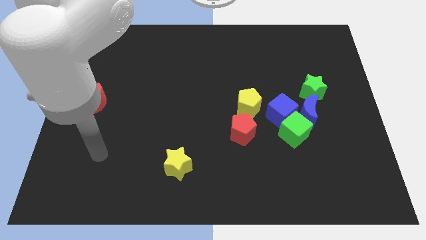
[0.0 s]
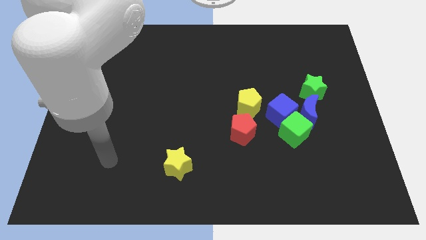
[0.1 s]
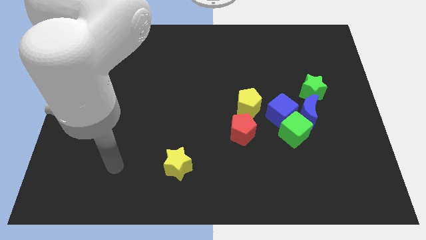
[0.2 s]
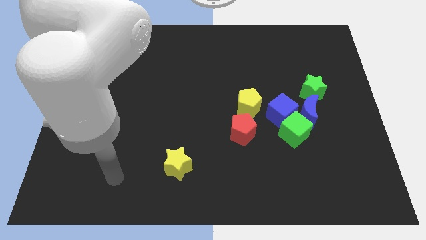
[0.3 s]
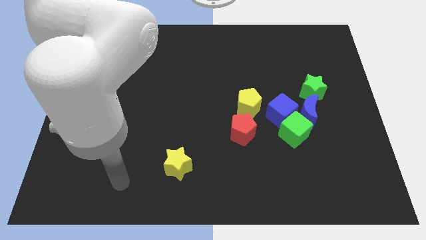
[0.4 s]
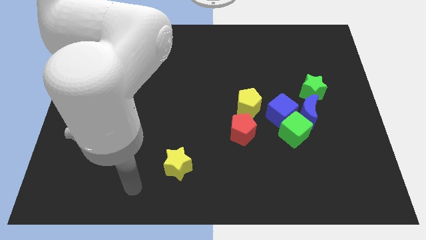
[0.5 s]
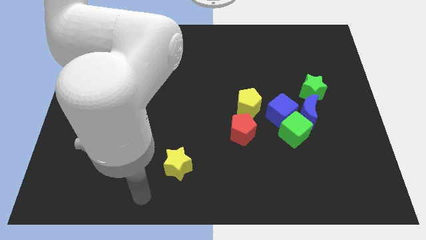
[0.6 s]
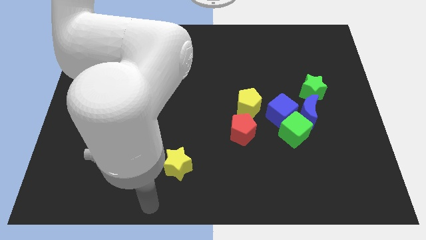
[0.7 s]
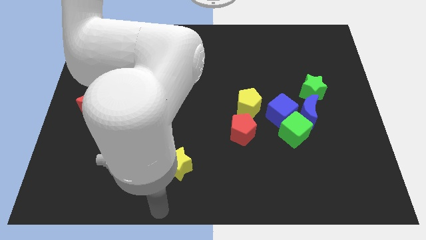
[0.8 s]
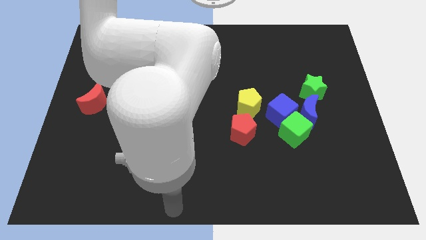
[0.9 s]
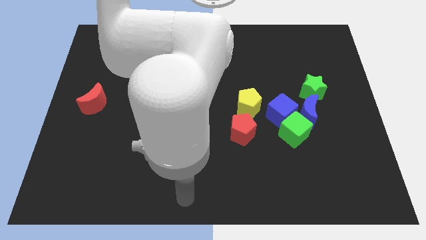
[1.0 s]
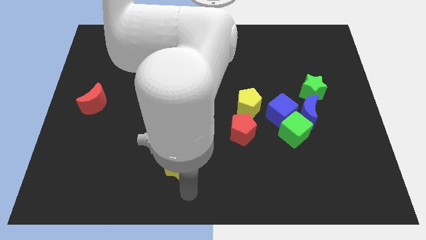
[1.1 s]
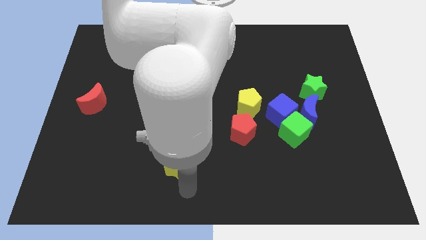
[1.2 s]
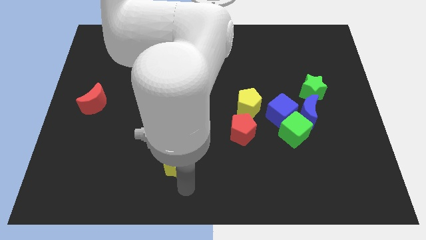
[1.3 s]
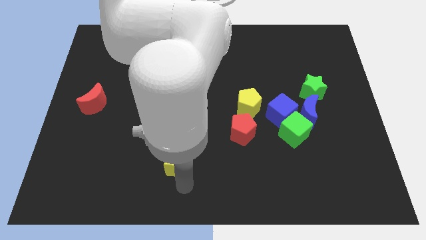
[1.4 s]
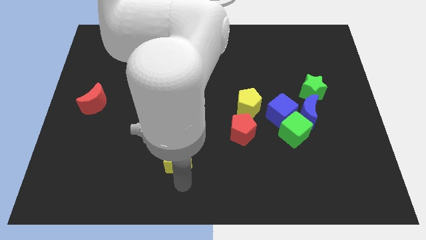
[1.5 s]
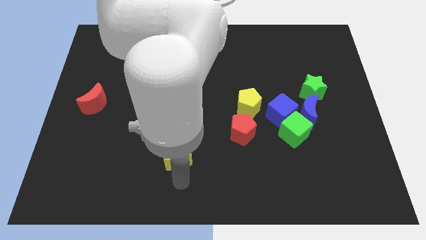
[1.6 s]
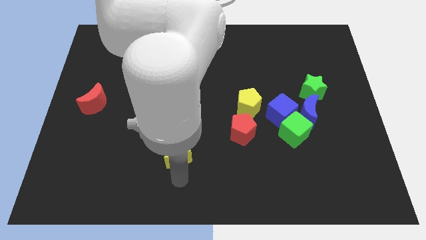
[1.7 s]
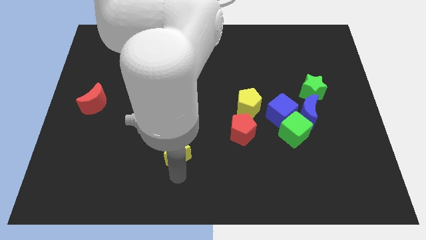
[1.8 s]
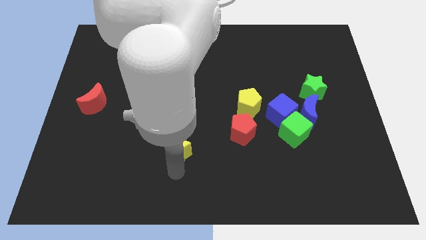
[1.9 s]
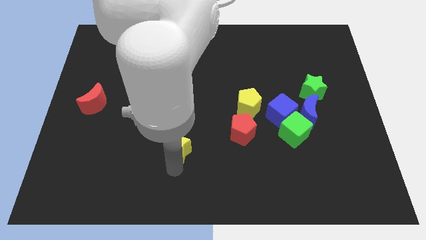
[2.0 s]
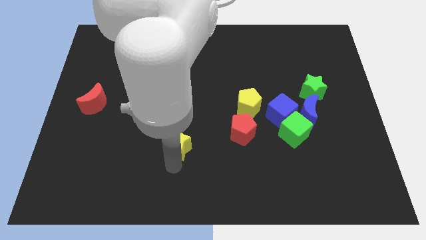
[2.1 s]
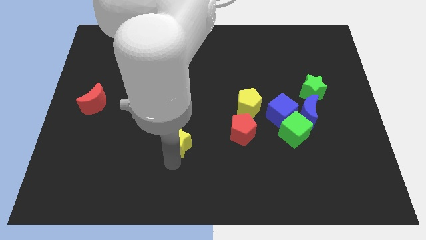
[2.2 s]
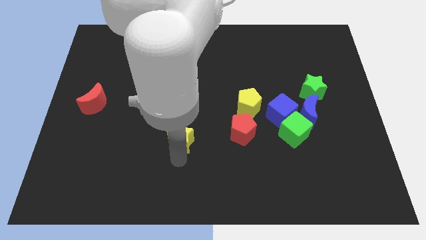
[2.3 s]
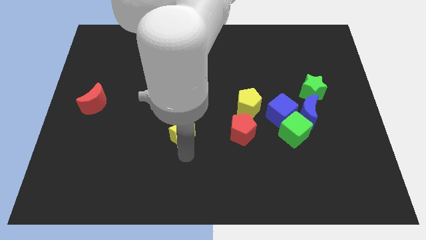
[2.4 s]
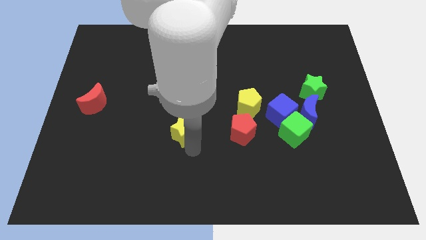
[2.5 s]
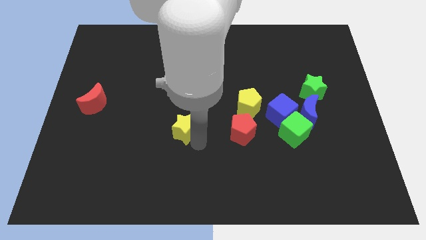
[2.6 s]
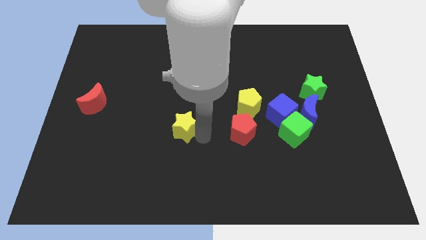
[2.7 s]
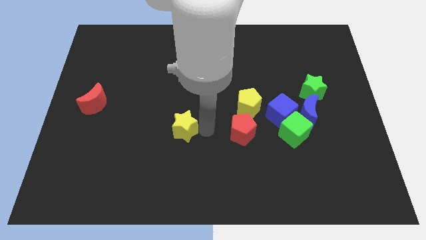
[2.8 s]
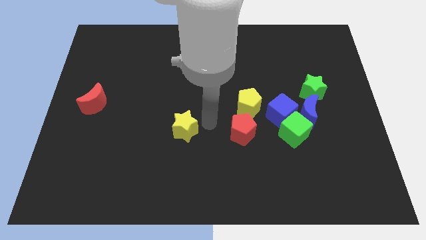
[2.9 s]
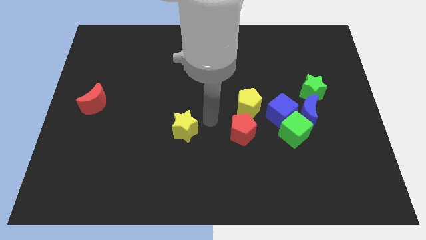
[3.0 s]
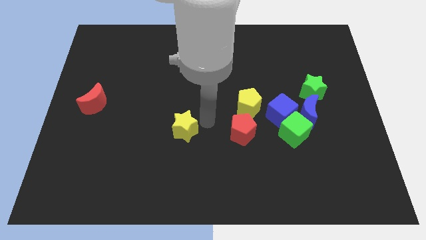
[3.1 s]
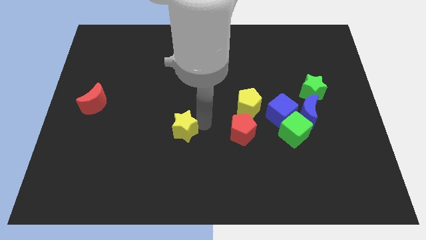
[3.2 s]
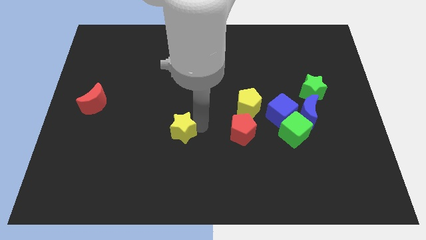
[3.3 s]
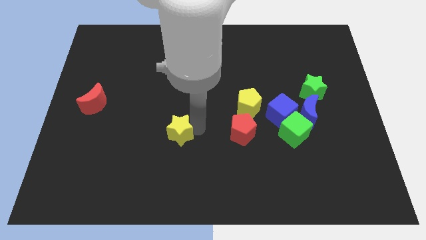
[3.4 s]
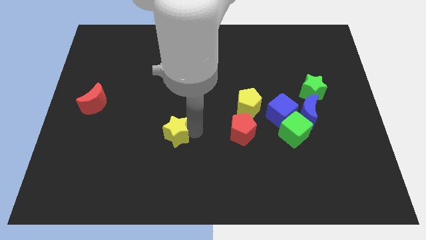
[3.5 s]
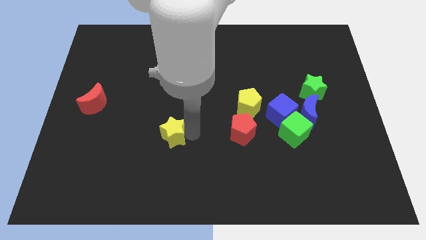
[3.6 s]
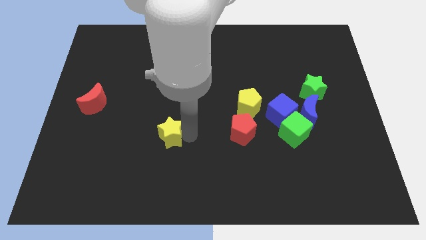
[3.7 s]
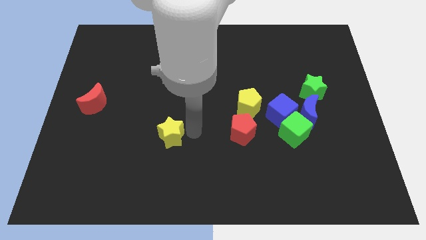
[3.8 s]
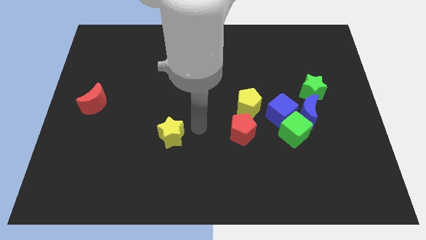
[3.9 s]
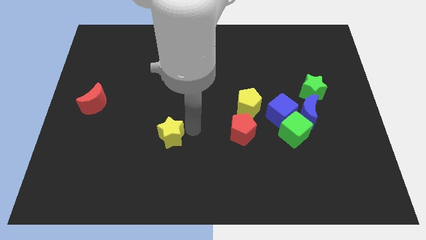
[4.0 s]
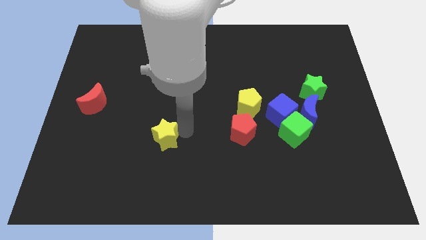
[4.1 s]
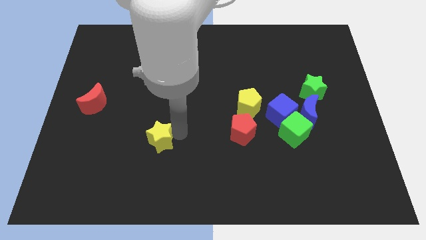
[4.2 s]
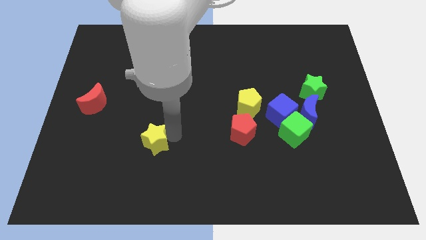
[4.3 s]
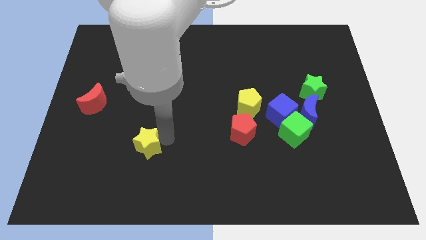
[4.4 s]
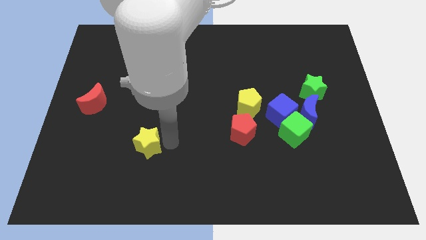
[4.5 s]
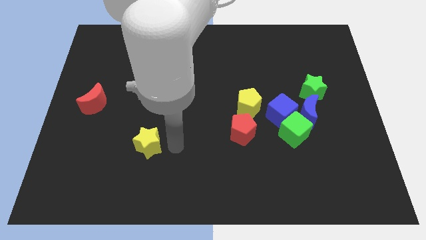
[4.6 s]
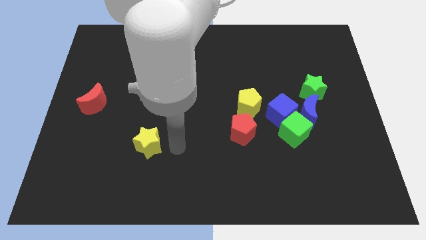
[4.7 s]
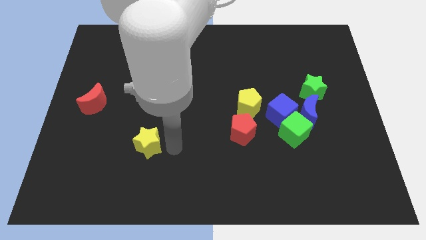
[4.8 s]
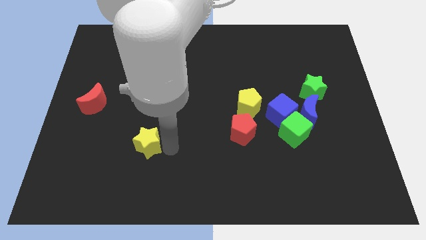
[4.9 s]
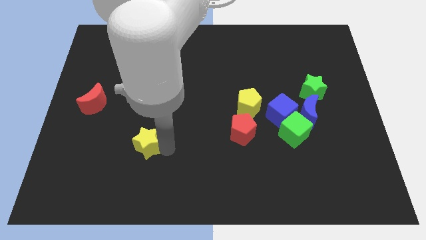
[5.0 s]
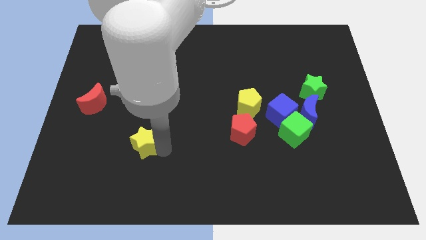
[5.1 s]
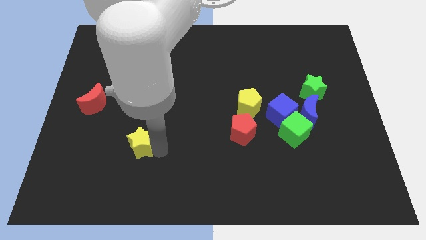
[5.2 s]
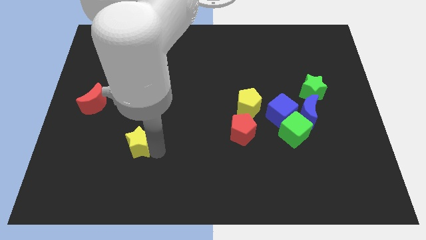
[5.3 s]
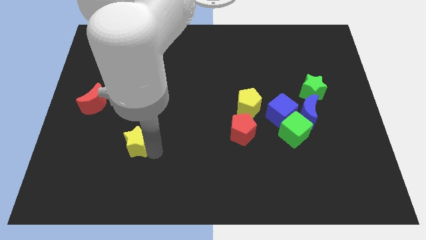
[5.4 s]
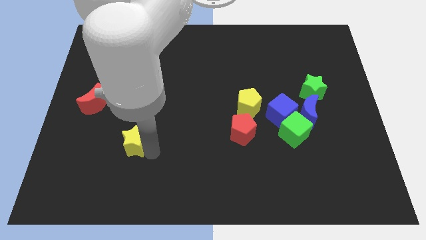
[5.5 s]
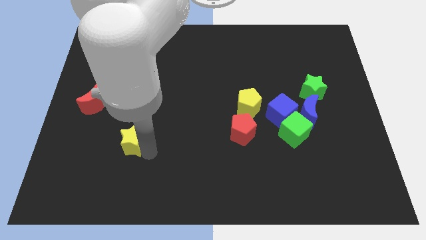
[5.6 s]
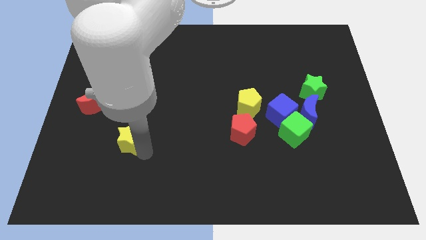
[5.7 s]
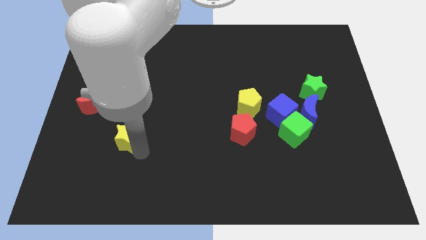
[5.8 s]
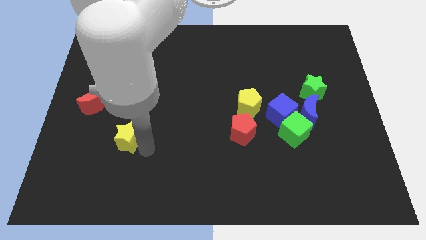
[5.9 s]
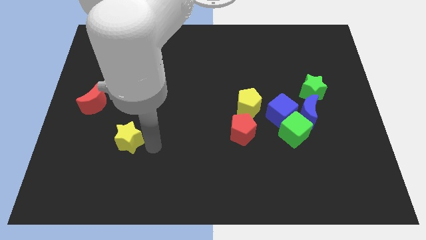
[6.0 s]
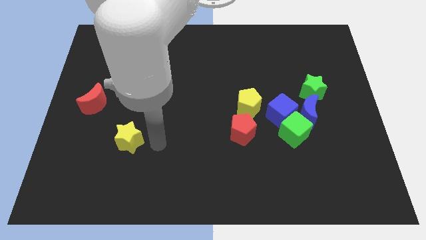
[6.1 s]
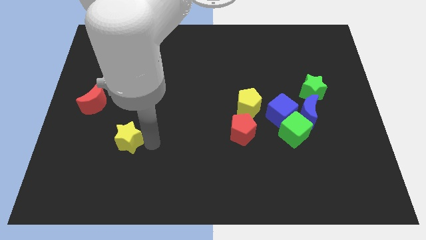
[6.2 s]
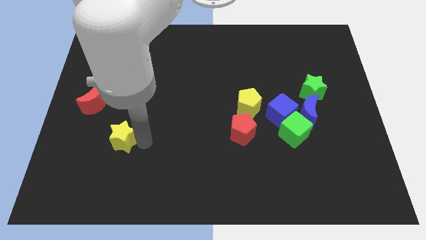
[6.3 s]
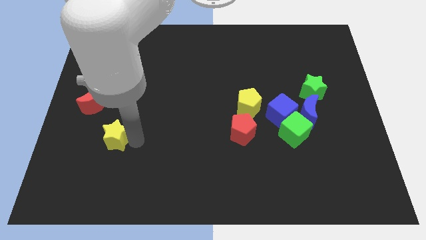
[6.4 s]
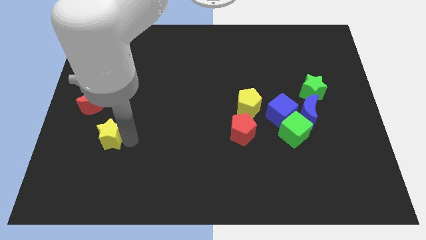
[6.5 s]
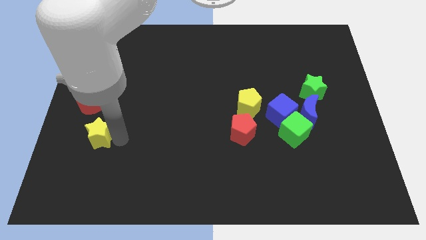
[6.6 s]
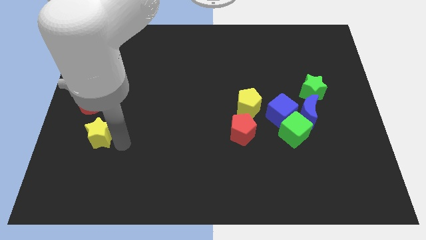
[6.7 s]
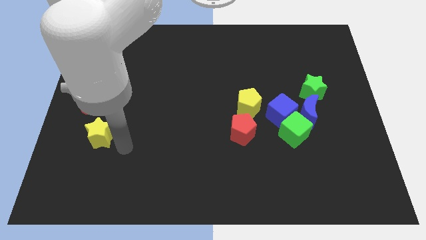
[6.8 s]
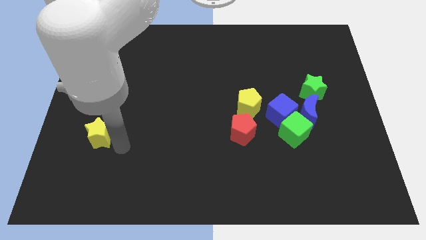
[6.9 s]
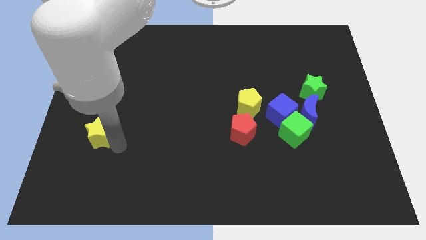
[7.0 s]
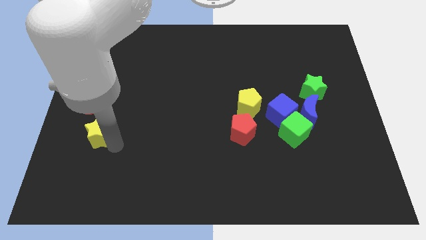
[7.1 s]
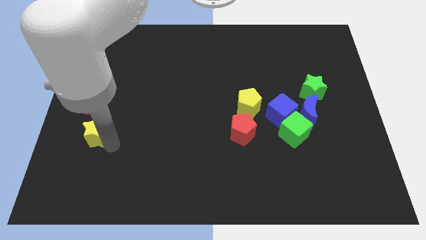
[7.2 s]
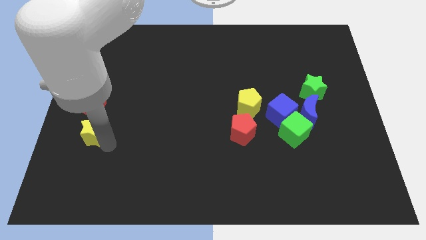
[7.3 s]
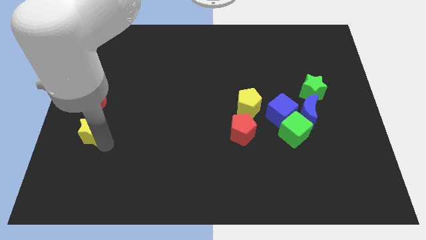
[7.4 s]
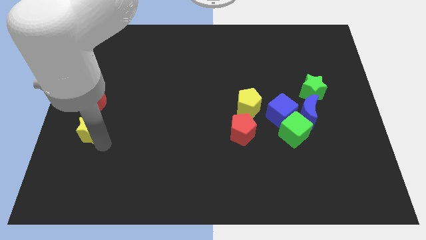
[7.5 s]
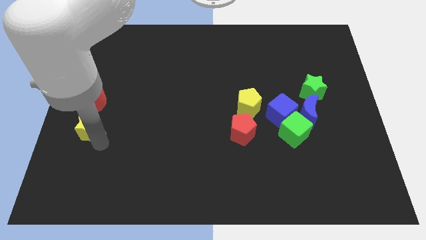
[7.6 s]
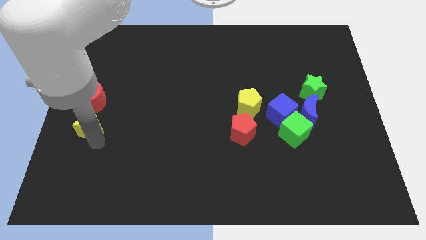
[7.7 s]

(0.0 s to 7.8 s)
slide the yellow star to the center left
